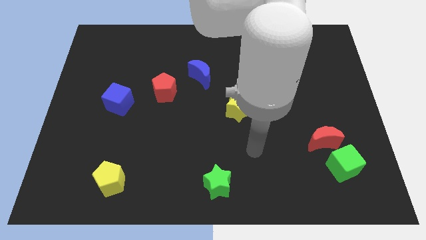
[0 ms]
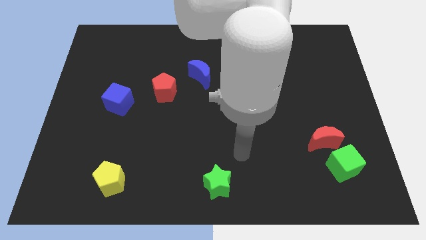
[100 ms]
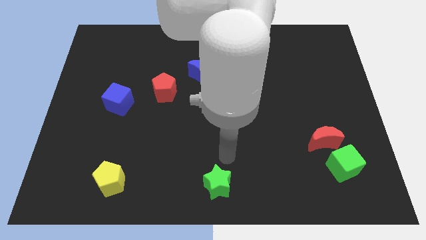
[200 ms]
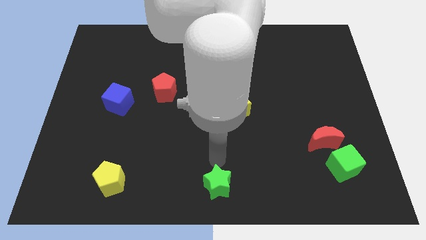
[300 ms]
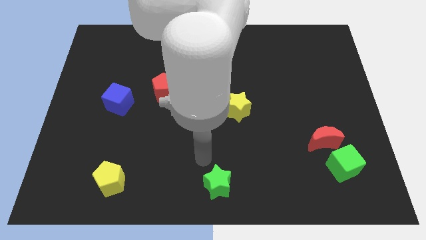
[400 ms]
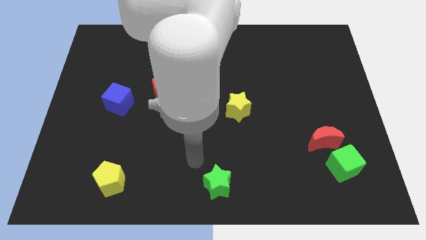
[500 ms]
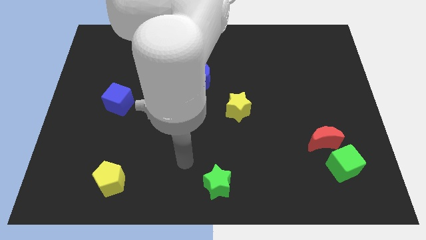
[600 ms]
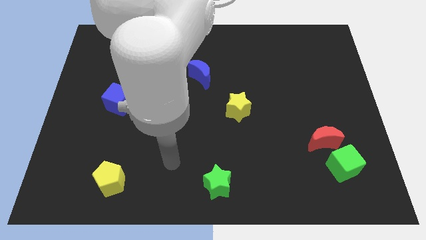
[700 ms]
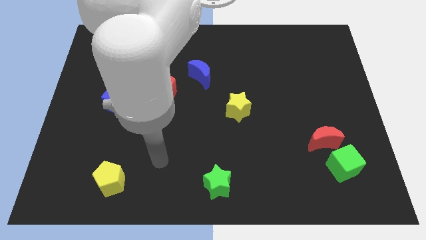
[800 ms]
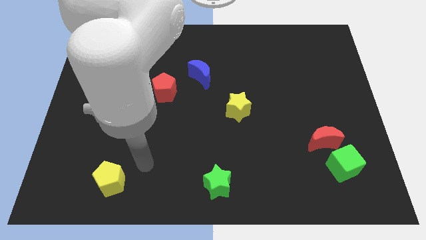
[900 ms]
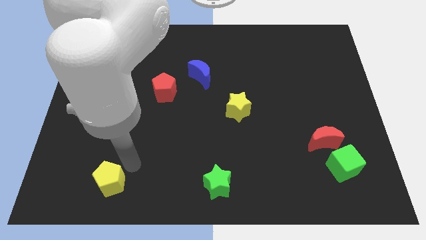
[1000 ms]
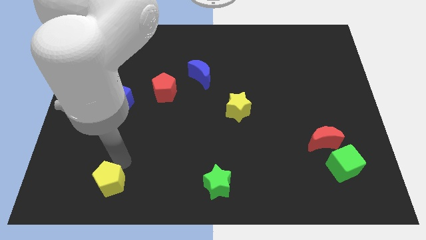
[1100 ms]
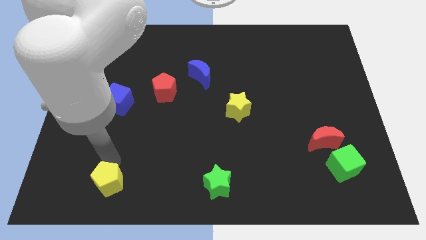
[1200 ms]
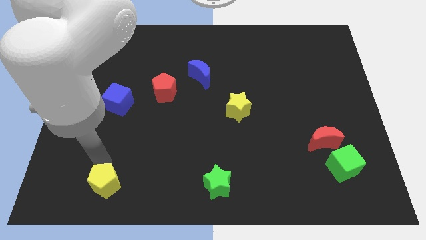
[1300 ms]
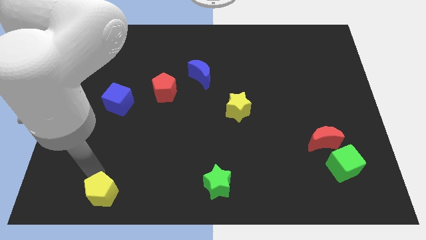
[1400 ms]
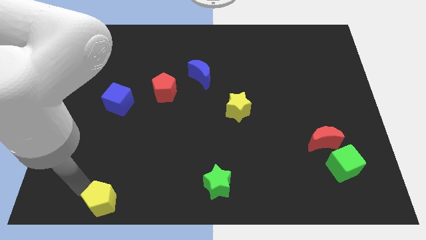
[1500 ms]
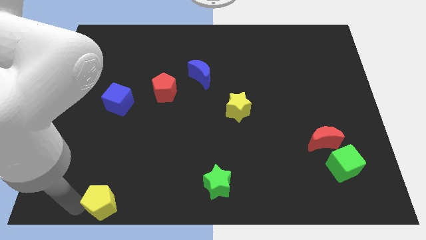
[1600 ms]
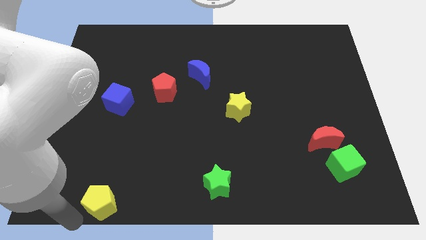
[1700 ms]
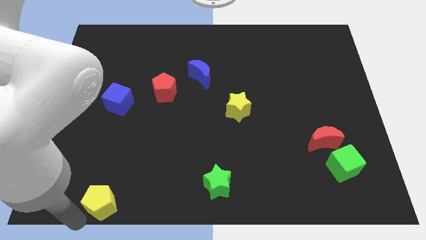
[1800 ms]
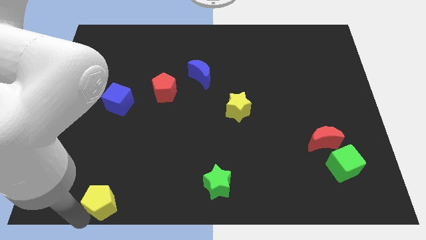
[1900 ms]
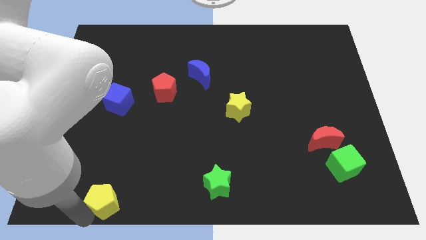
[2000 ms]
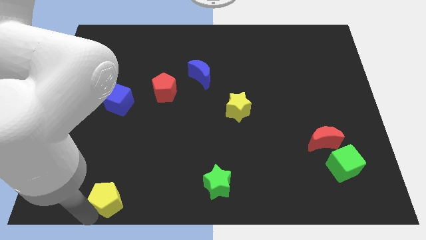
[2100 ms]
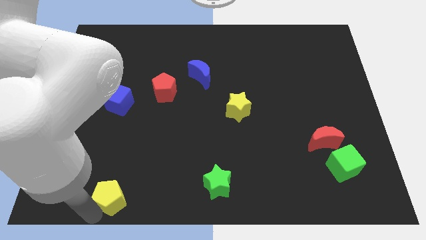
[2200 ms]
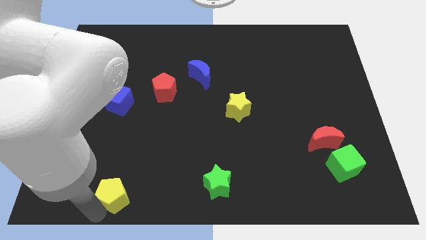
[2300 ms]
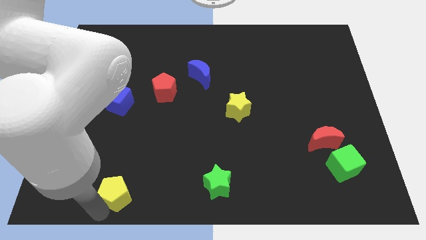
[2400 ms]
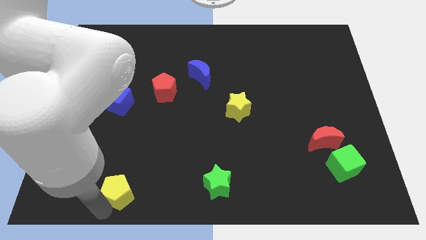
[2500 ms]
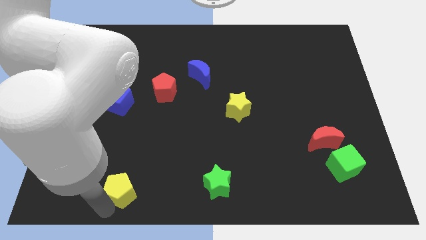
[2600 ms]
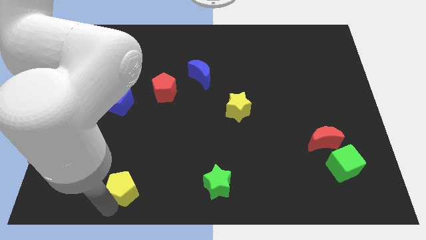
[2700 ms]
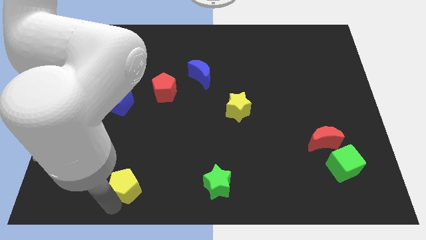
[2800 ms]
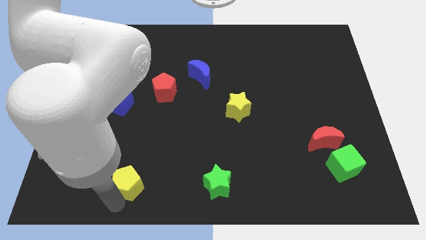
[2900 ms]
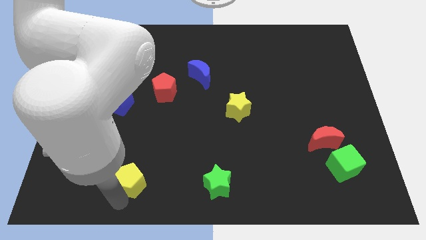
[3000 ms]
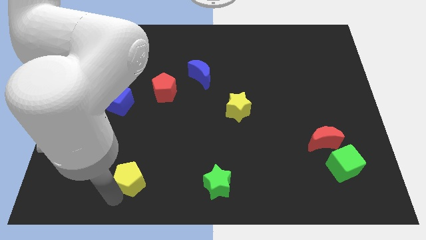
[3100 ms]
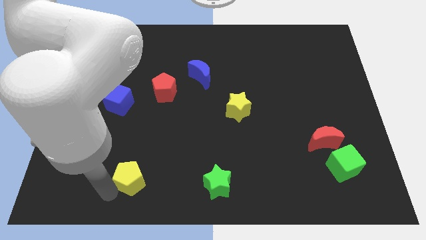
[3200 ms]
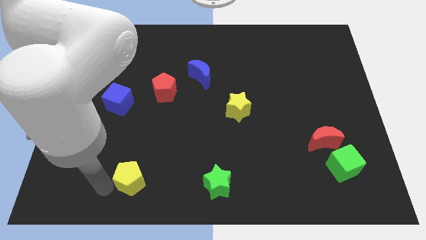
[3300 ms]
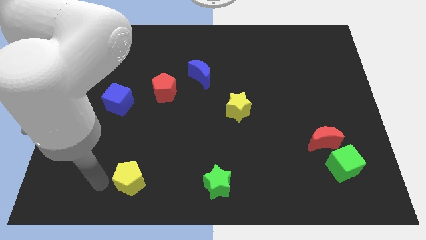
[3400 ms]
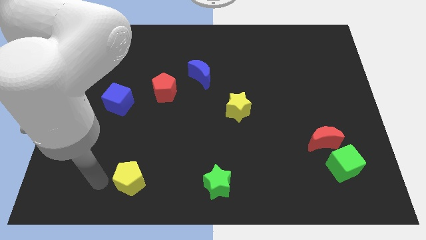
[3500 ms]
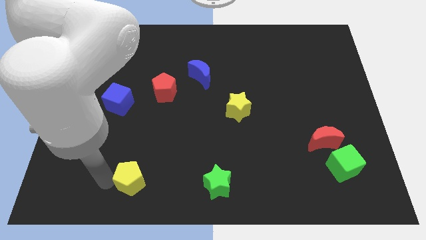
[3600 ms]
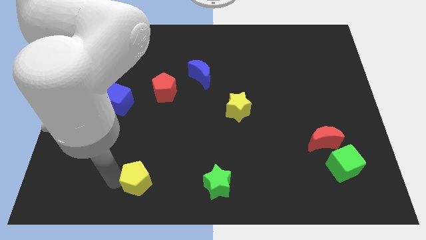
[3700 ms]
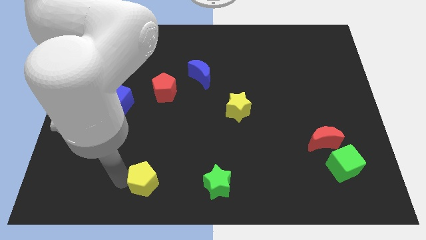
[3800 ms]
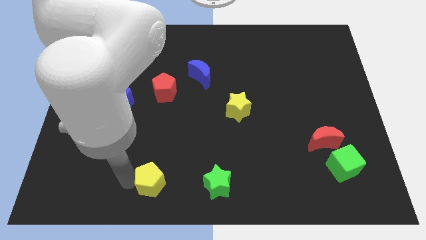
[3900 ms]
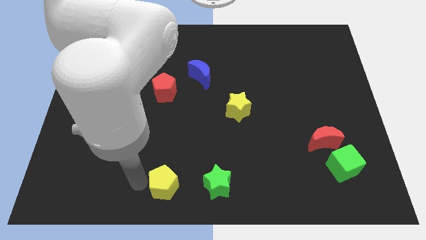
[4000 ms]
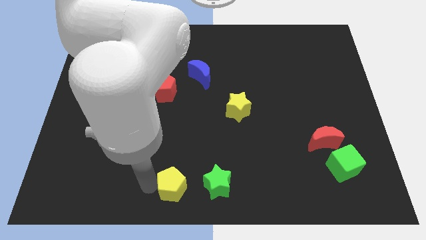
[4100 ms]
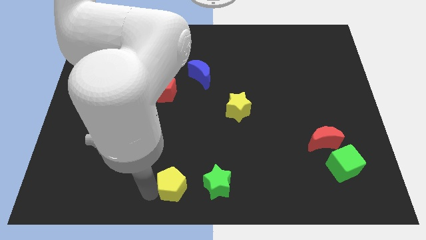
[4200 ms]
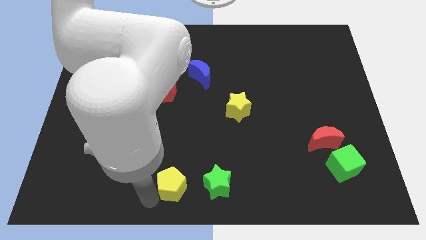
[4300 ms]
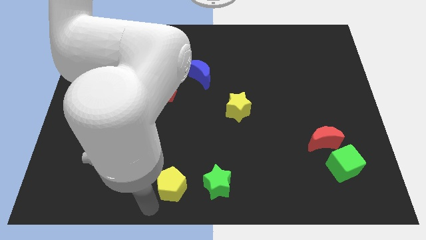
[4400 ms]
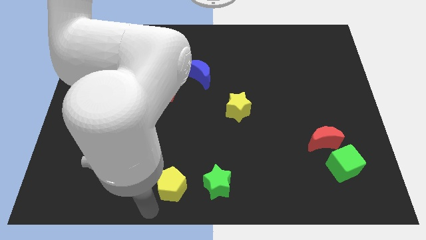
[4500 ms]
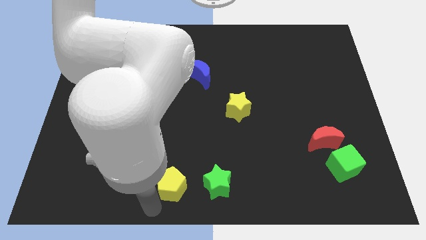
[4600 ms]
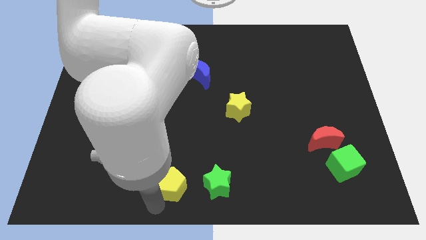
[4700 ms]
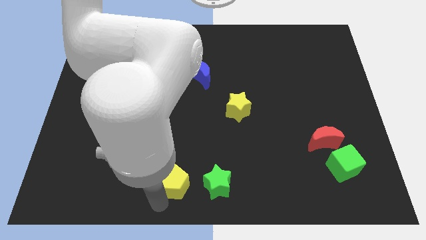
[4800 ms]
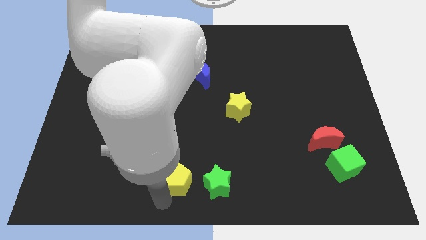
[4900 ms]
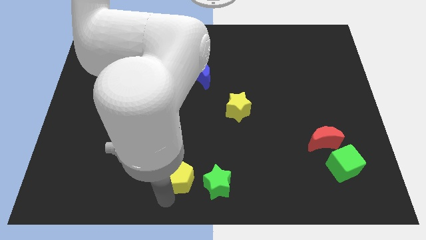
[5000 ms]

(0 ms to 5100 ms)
push the yellow pentagon to the top left side of the green star

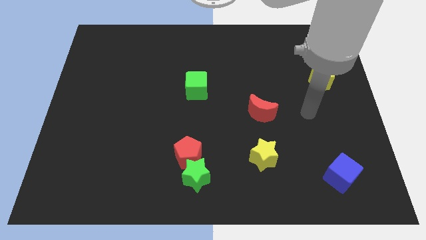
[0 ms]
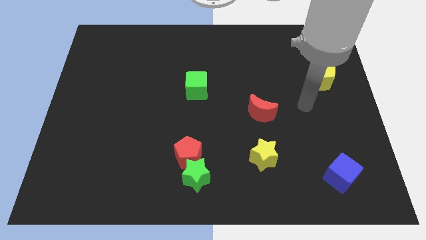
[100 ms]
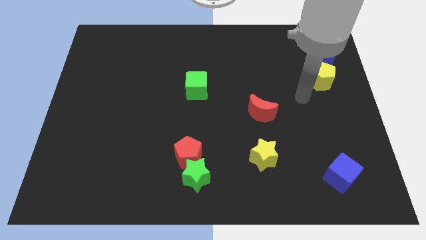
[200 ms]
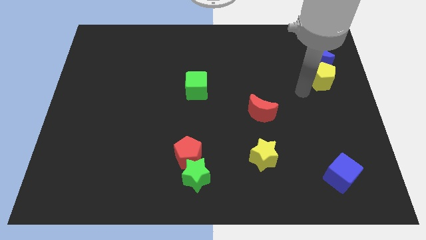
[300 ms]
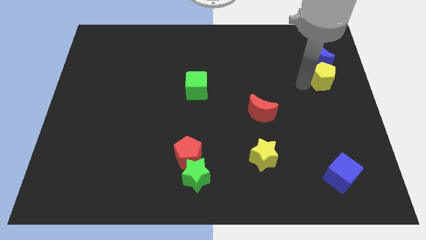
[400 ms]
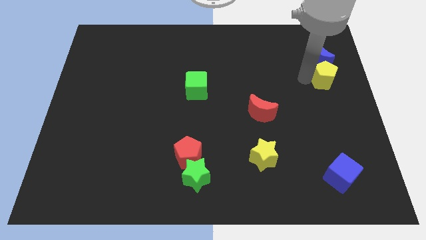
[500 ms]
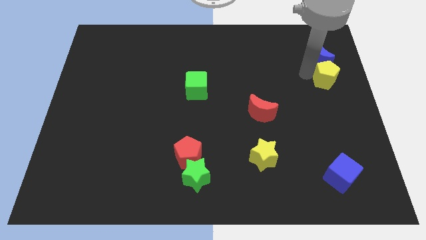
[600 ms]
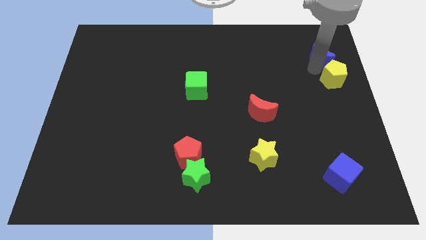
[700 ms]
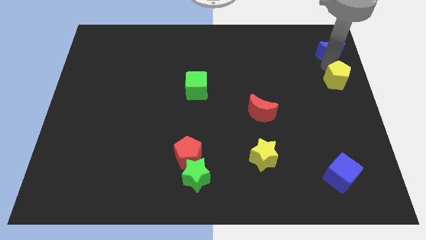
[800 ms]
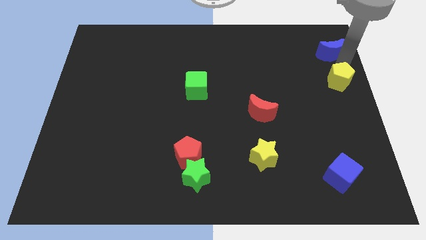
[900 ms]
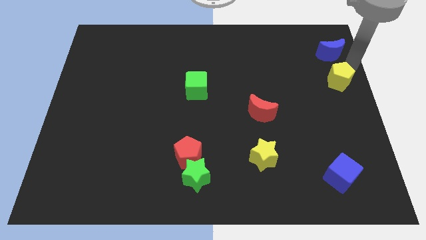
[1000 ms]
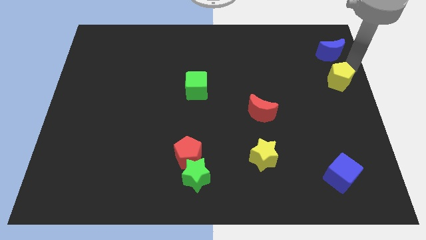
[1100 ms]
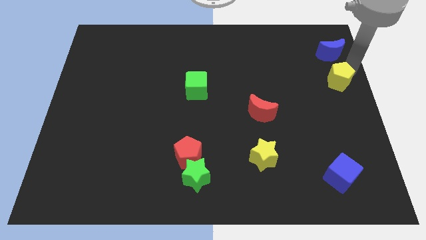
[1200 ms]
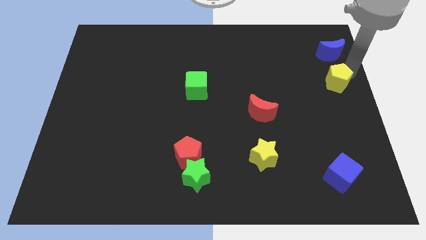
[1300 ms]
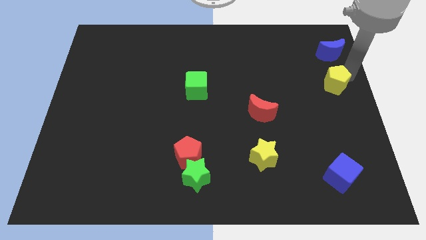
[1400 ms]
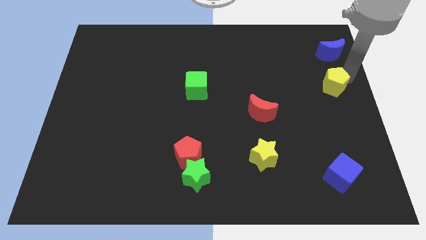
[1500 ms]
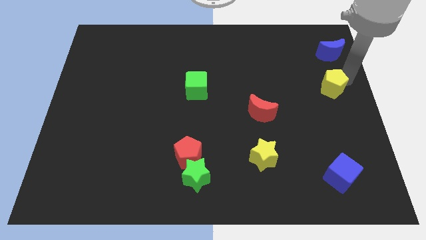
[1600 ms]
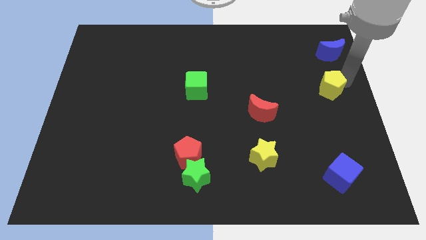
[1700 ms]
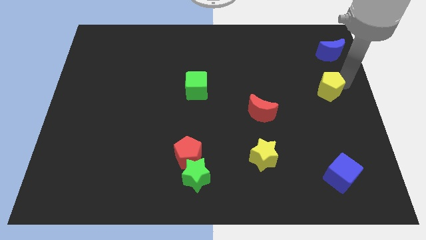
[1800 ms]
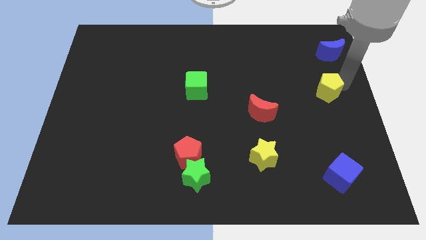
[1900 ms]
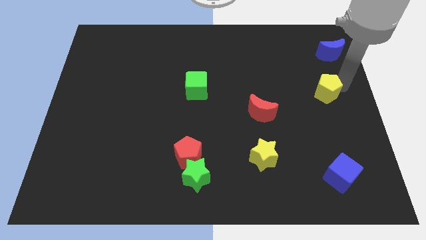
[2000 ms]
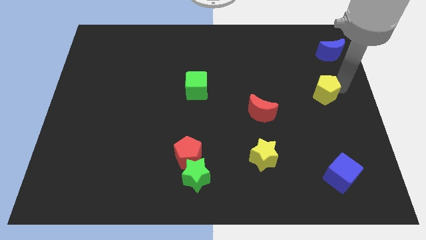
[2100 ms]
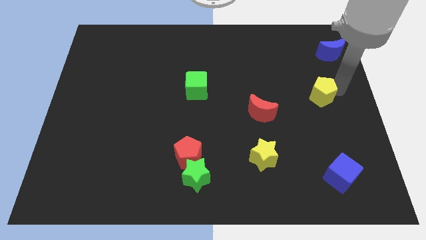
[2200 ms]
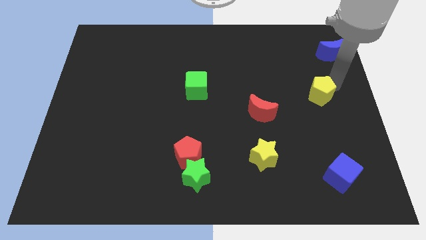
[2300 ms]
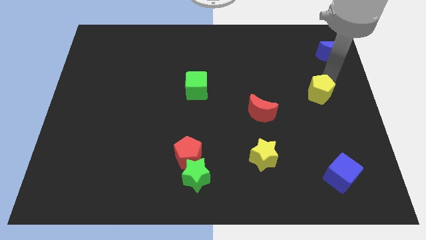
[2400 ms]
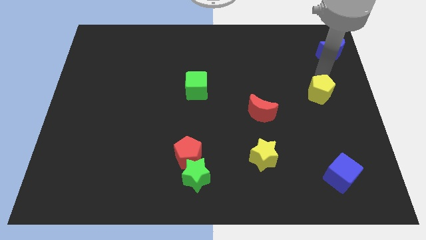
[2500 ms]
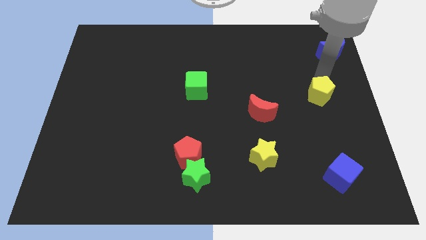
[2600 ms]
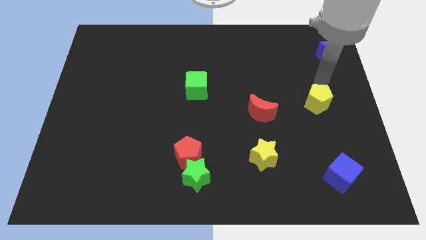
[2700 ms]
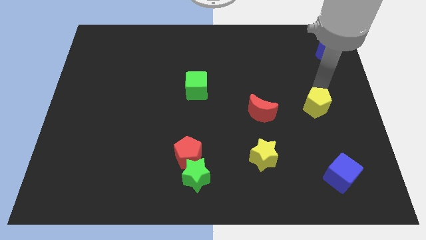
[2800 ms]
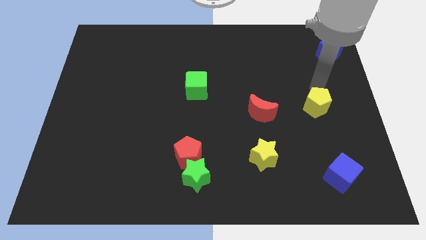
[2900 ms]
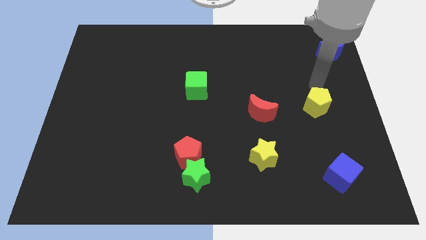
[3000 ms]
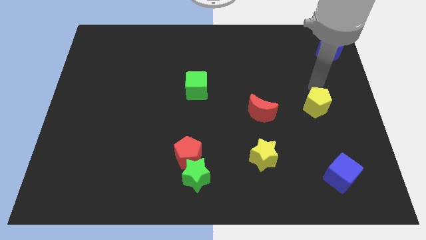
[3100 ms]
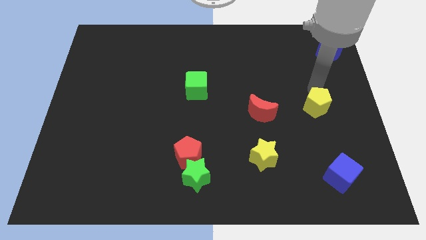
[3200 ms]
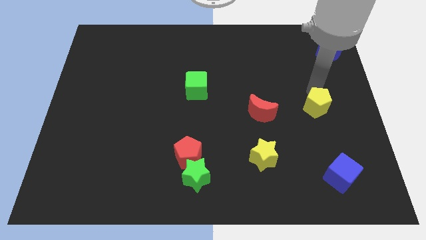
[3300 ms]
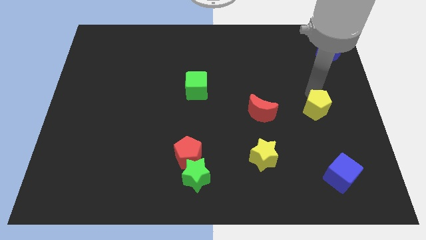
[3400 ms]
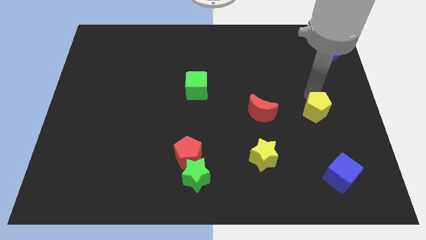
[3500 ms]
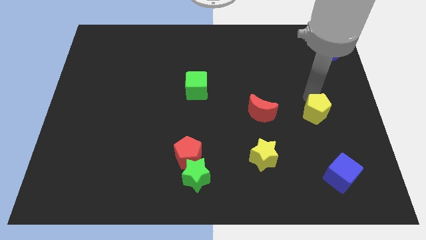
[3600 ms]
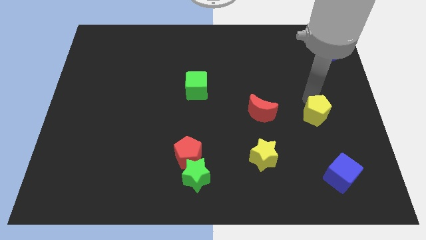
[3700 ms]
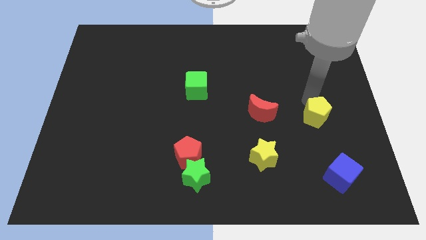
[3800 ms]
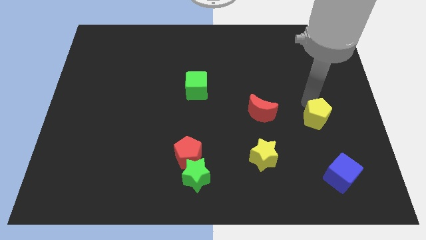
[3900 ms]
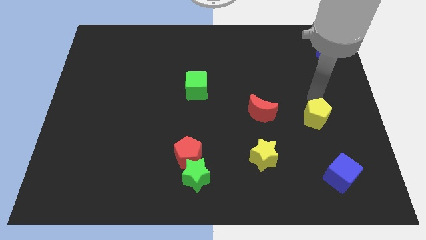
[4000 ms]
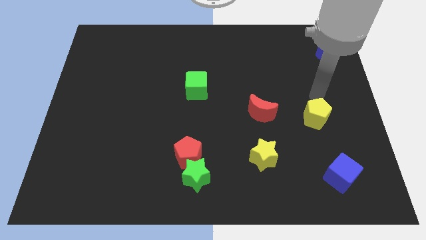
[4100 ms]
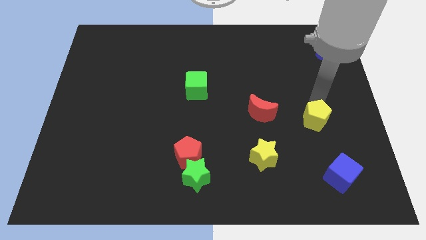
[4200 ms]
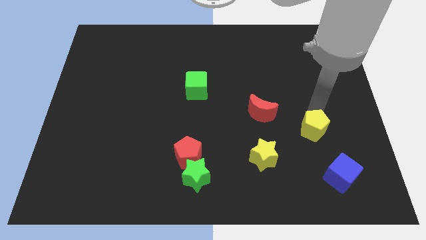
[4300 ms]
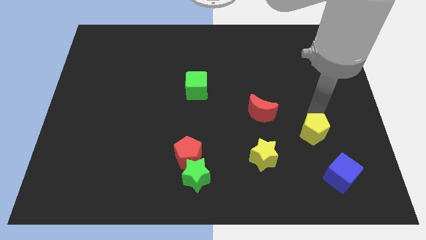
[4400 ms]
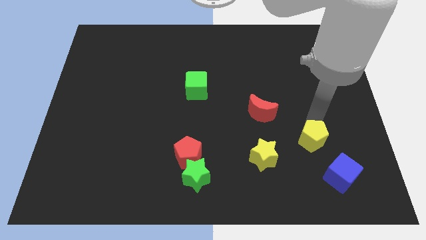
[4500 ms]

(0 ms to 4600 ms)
move the yellow pentagon just right of the yellow star
